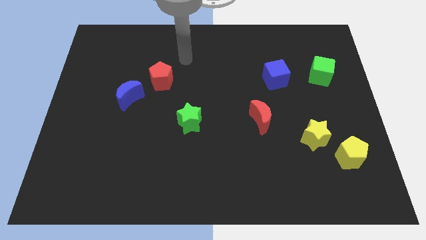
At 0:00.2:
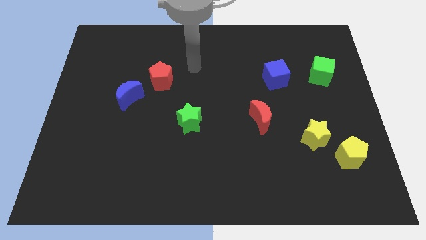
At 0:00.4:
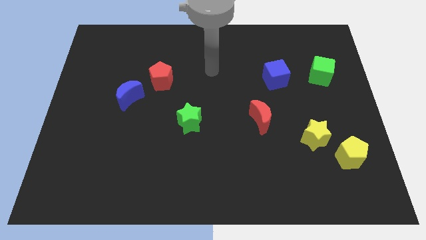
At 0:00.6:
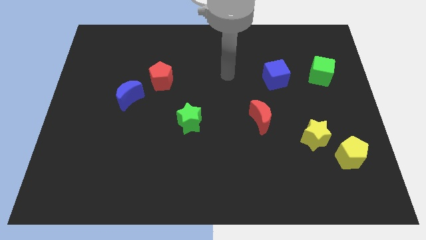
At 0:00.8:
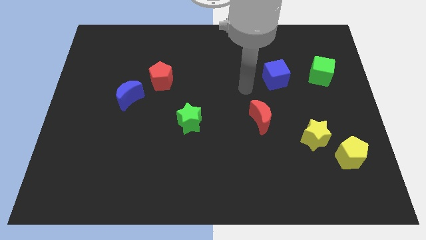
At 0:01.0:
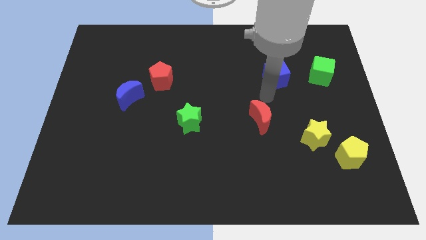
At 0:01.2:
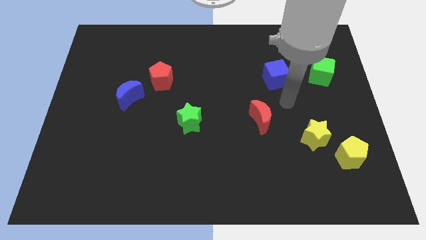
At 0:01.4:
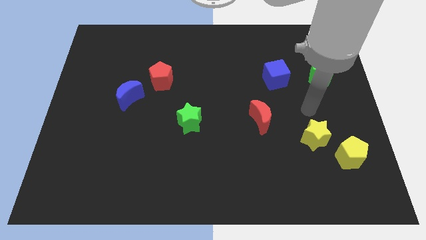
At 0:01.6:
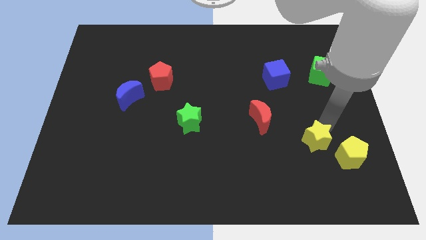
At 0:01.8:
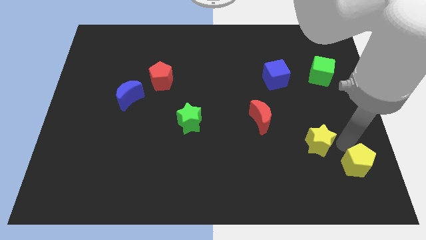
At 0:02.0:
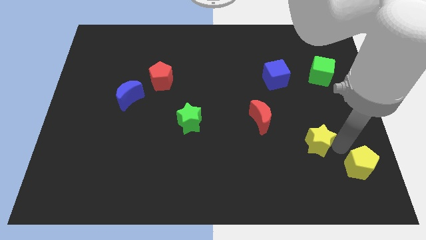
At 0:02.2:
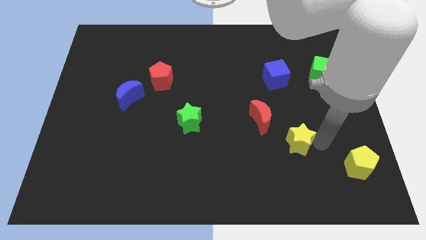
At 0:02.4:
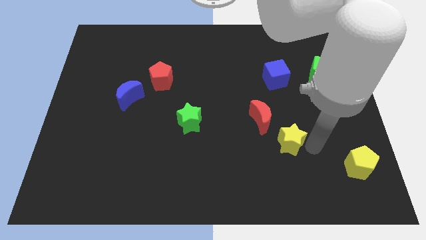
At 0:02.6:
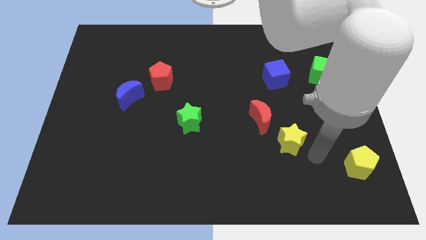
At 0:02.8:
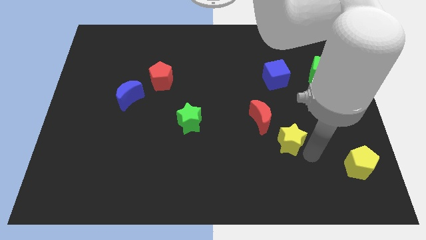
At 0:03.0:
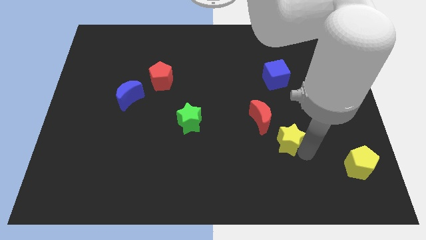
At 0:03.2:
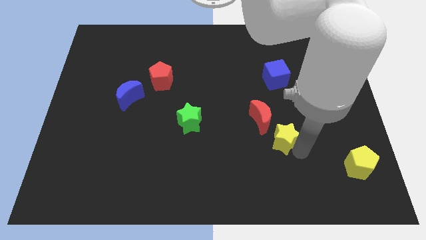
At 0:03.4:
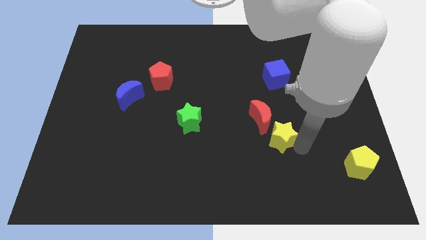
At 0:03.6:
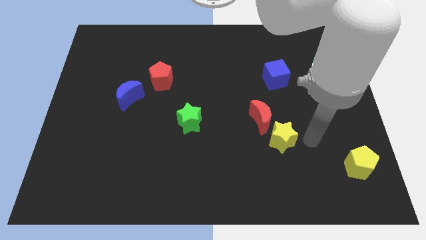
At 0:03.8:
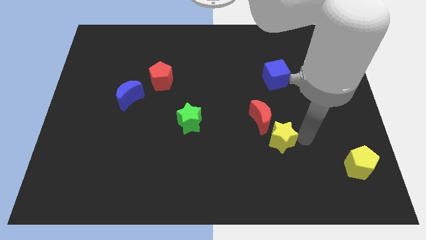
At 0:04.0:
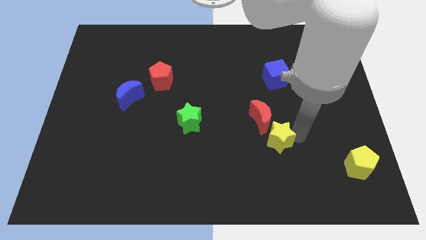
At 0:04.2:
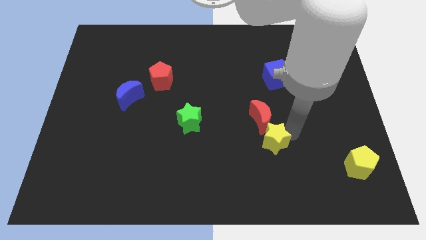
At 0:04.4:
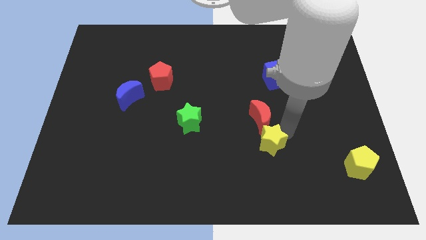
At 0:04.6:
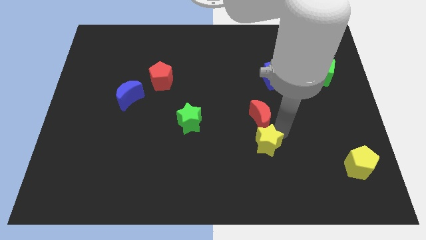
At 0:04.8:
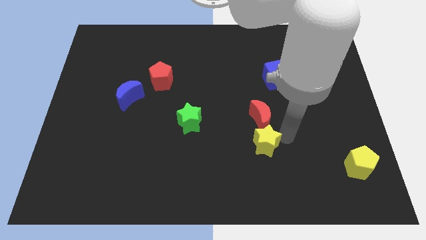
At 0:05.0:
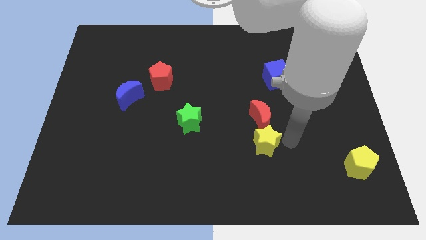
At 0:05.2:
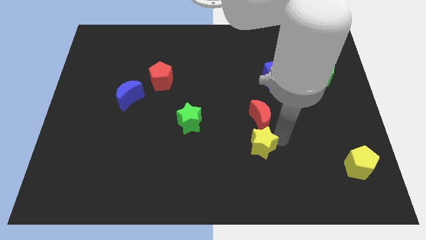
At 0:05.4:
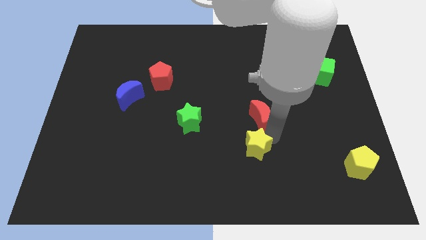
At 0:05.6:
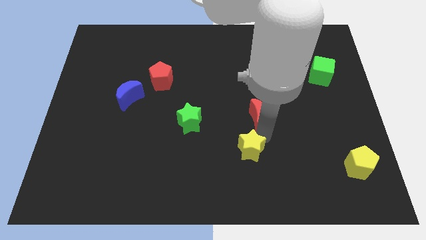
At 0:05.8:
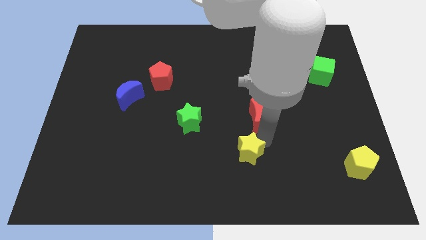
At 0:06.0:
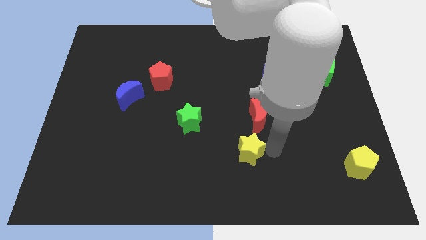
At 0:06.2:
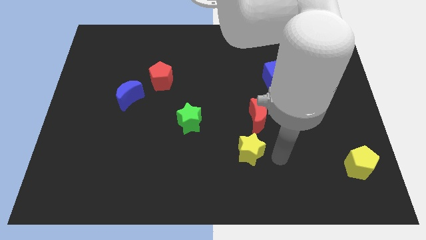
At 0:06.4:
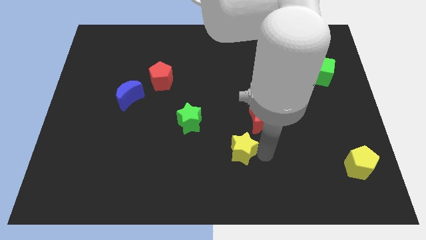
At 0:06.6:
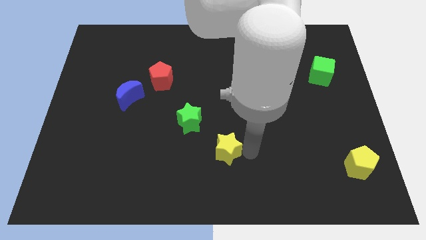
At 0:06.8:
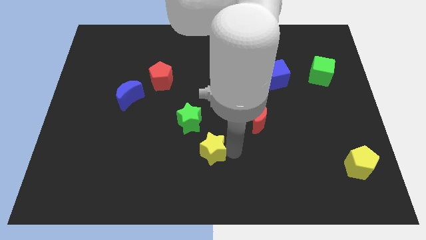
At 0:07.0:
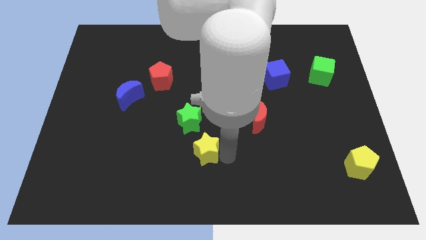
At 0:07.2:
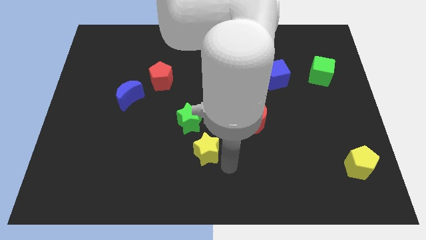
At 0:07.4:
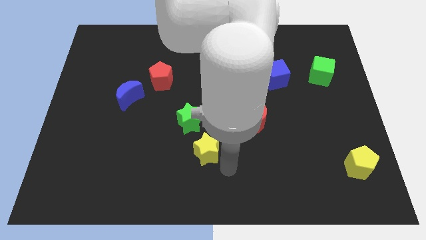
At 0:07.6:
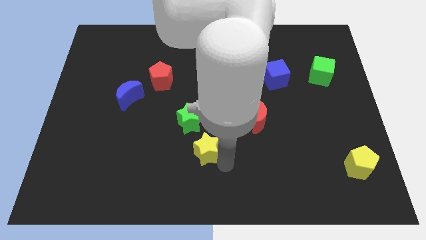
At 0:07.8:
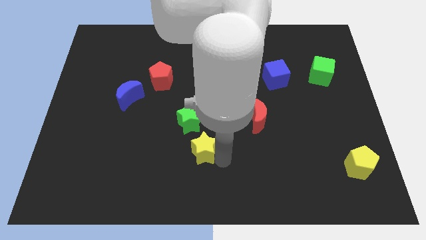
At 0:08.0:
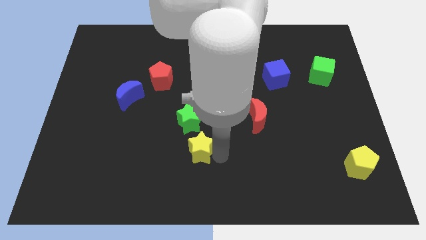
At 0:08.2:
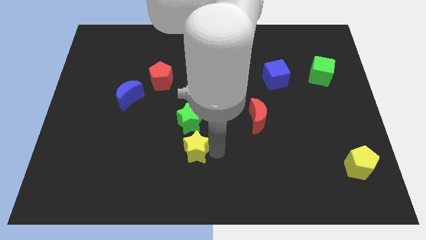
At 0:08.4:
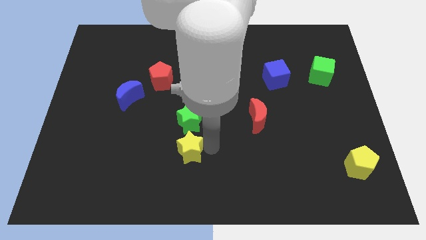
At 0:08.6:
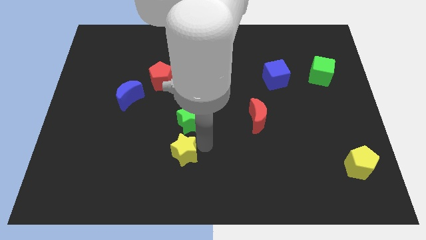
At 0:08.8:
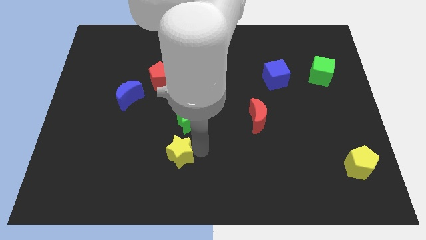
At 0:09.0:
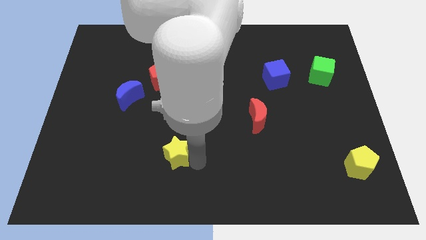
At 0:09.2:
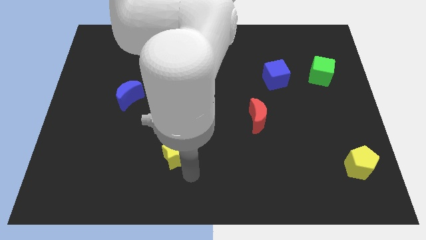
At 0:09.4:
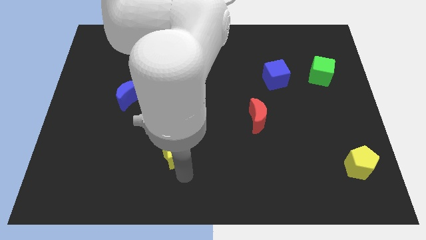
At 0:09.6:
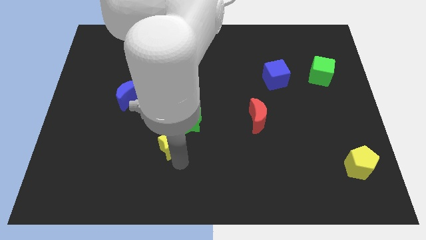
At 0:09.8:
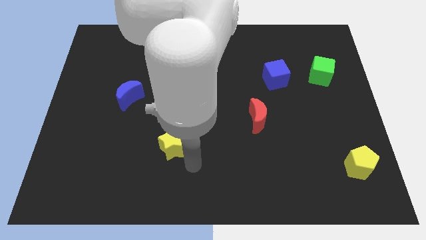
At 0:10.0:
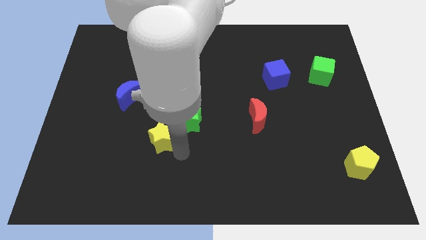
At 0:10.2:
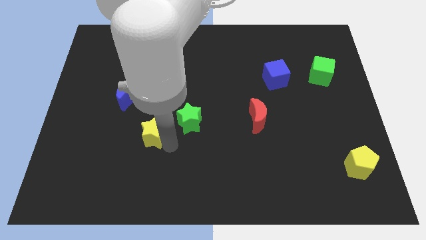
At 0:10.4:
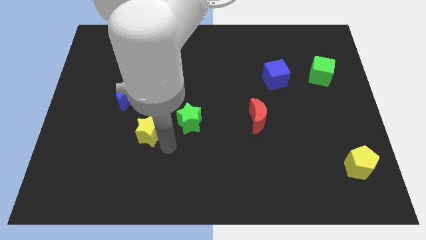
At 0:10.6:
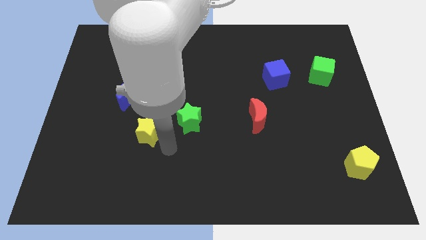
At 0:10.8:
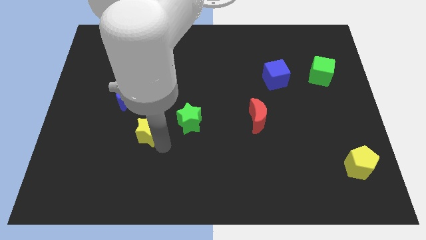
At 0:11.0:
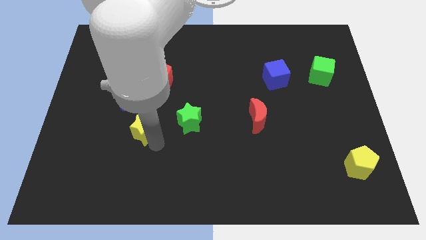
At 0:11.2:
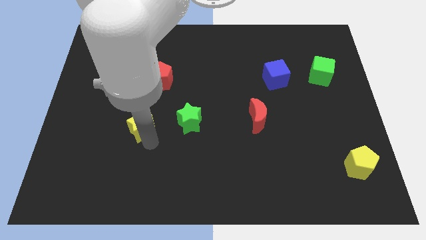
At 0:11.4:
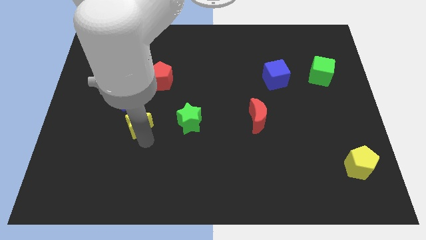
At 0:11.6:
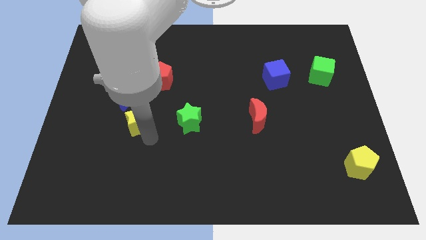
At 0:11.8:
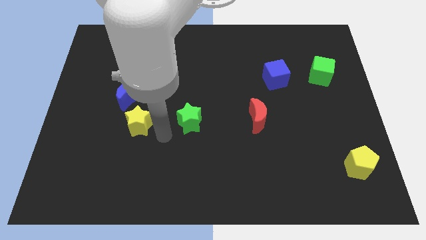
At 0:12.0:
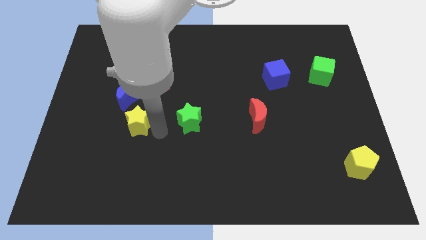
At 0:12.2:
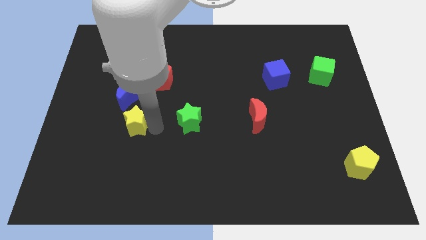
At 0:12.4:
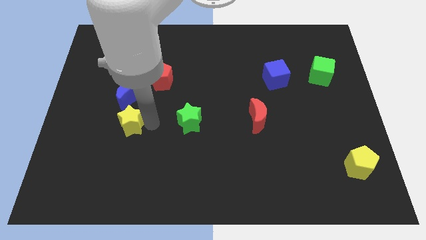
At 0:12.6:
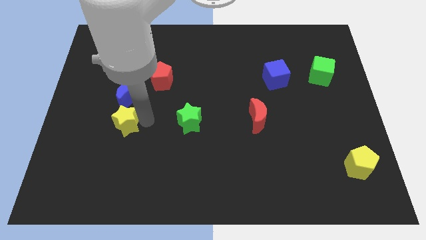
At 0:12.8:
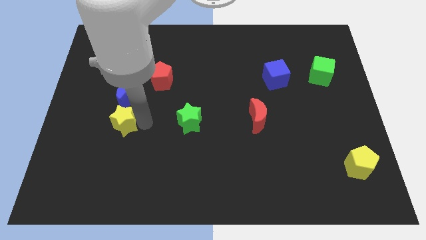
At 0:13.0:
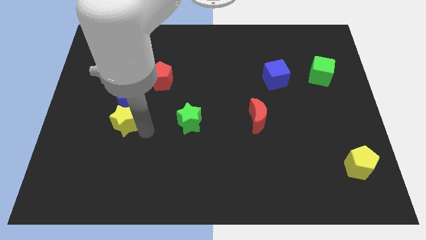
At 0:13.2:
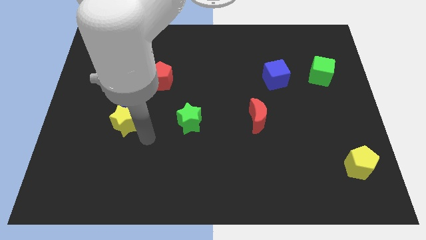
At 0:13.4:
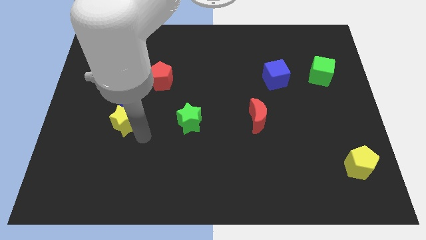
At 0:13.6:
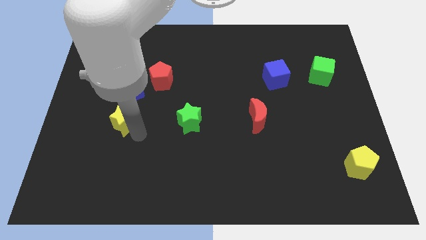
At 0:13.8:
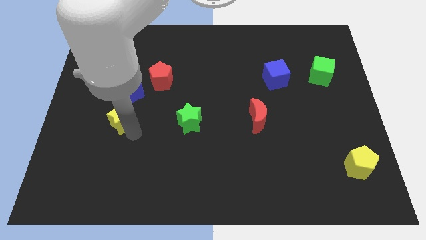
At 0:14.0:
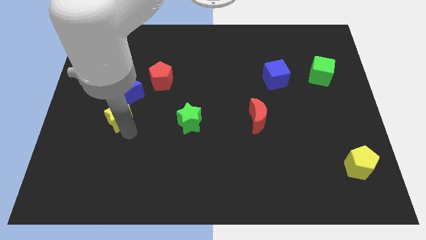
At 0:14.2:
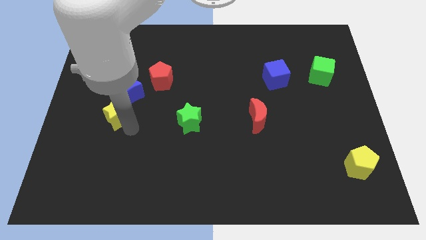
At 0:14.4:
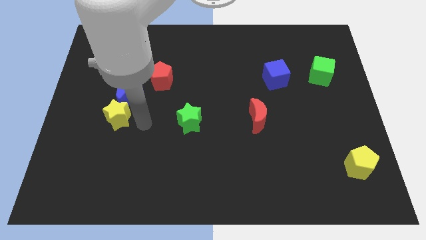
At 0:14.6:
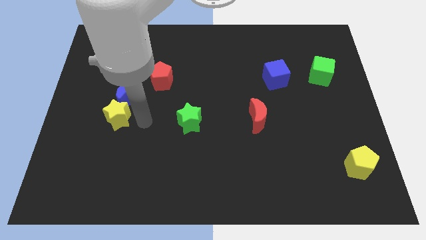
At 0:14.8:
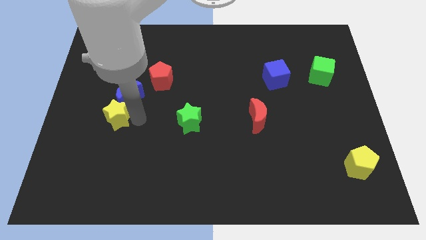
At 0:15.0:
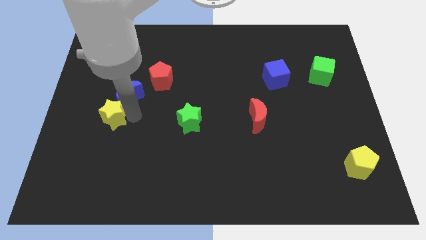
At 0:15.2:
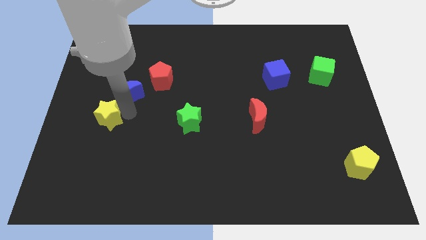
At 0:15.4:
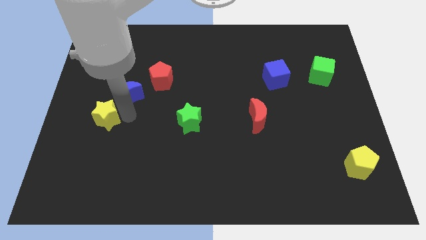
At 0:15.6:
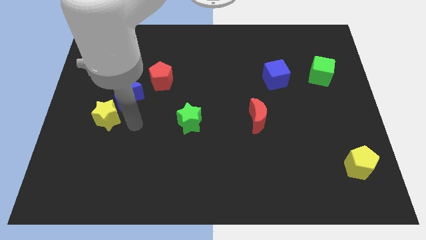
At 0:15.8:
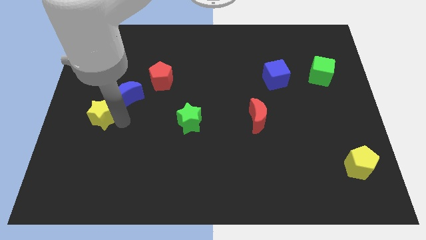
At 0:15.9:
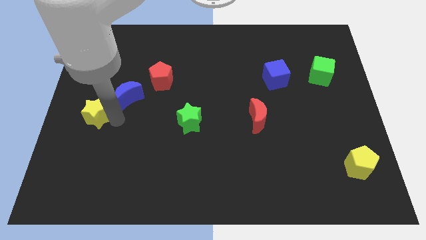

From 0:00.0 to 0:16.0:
slide the yellow star to the left side
